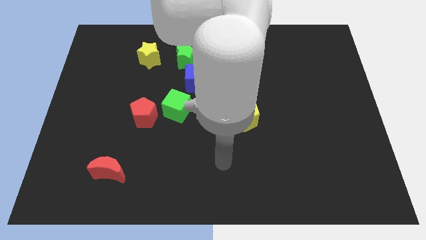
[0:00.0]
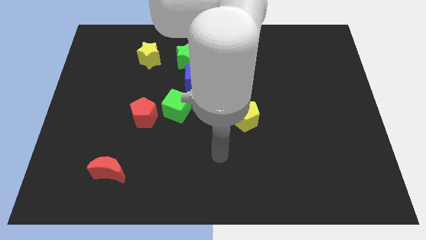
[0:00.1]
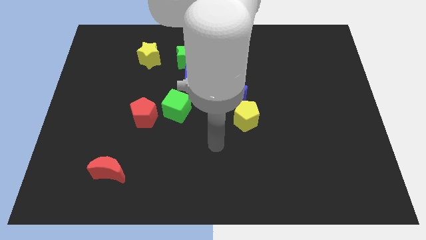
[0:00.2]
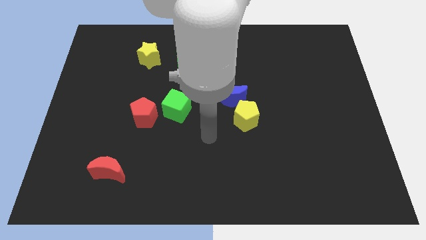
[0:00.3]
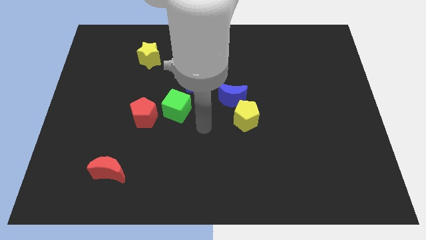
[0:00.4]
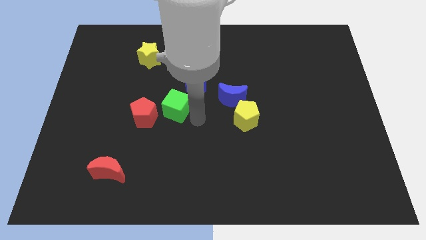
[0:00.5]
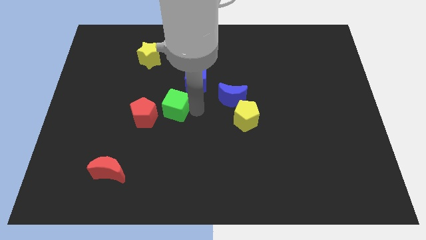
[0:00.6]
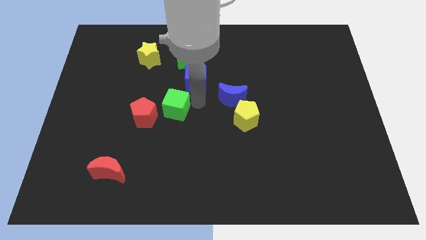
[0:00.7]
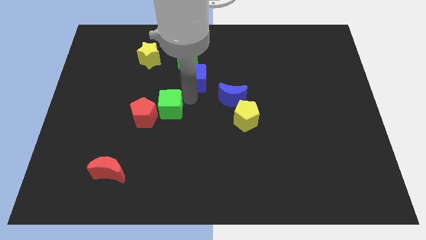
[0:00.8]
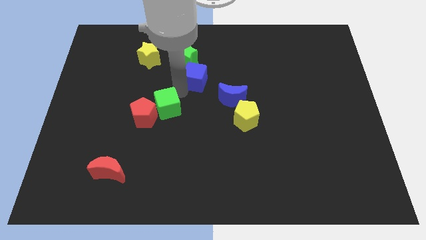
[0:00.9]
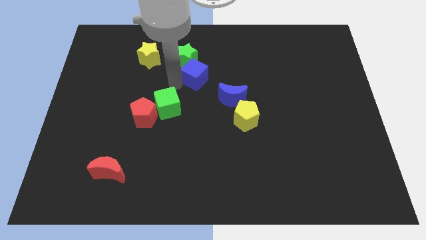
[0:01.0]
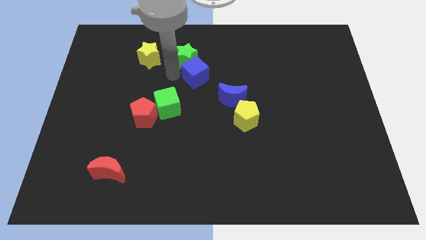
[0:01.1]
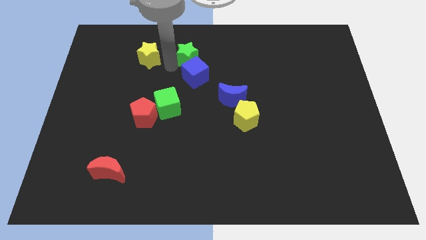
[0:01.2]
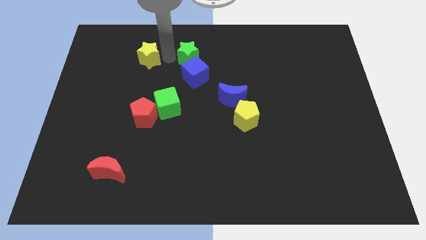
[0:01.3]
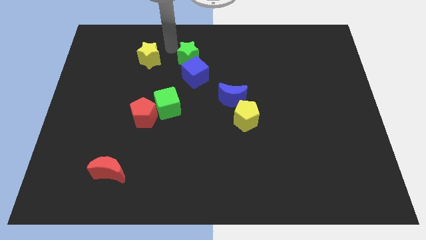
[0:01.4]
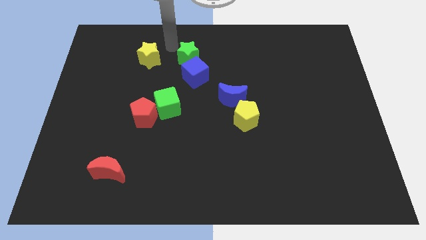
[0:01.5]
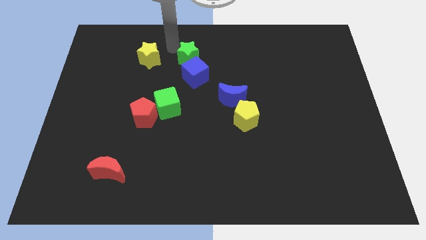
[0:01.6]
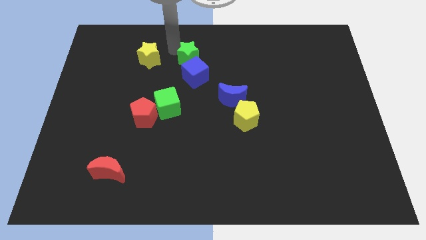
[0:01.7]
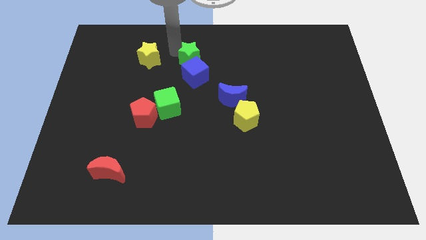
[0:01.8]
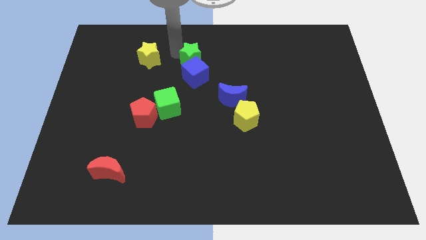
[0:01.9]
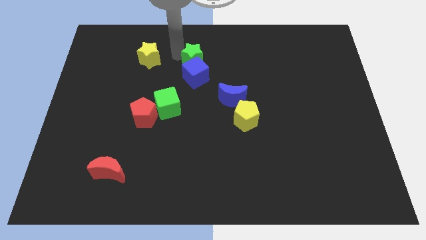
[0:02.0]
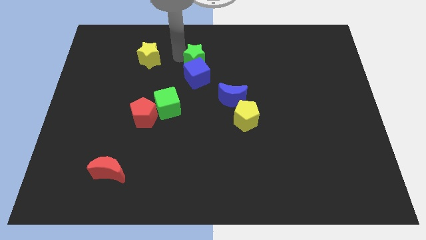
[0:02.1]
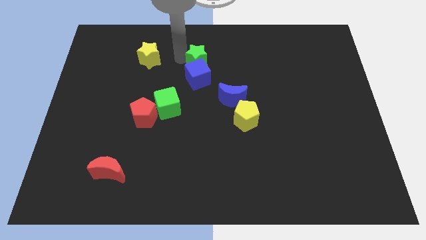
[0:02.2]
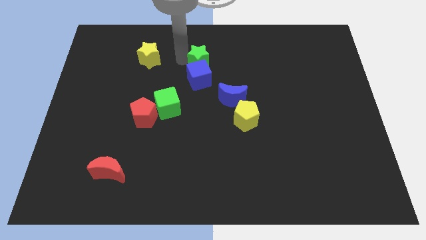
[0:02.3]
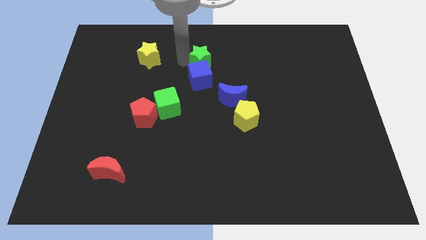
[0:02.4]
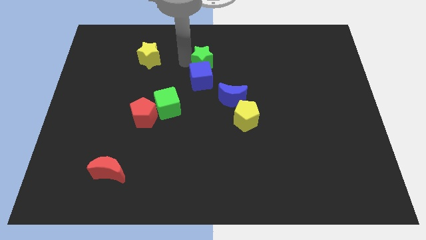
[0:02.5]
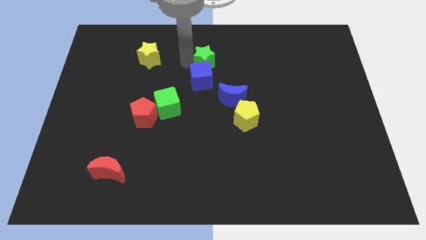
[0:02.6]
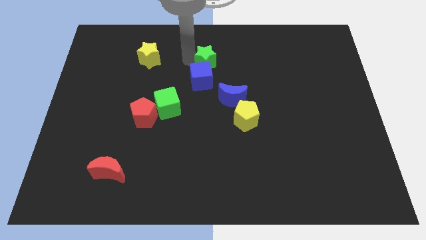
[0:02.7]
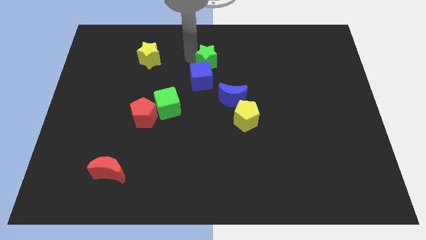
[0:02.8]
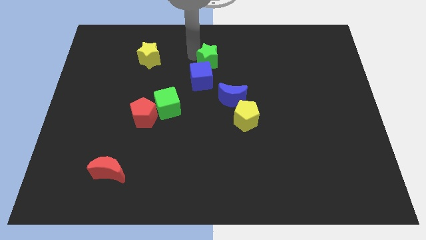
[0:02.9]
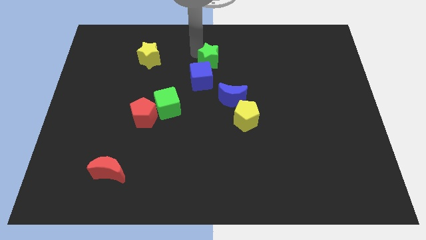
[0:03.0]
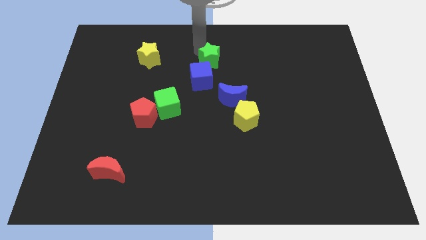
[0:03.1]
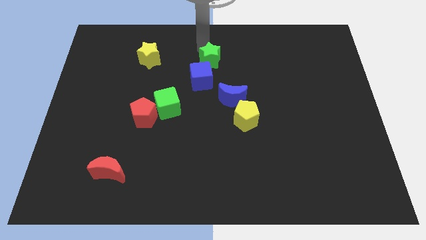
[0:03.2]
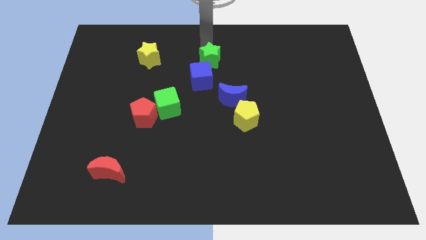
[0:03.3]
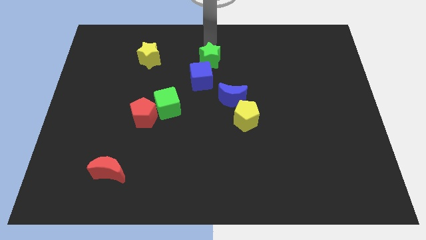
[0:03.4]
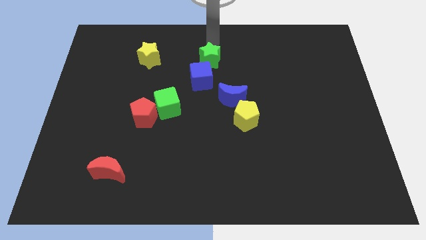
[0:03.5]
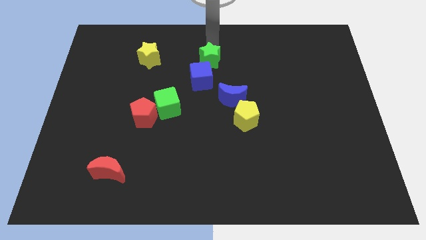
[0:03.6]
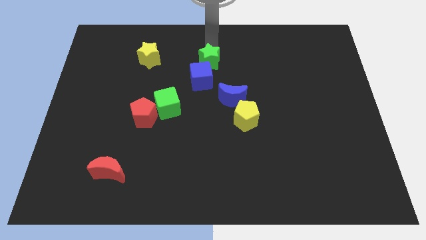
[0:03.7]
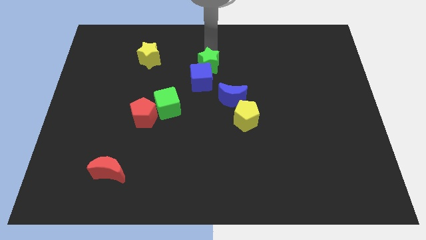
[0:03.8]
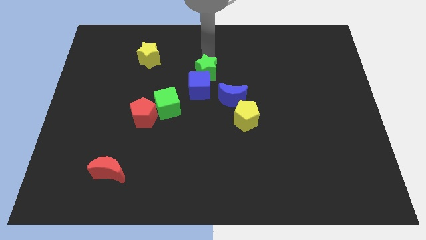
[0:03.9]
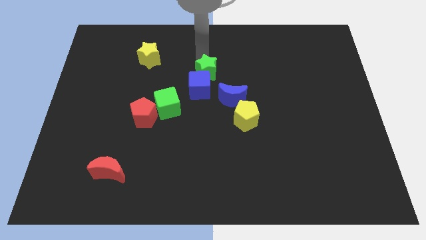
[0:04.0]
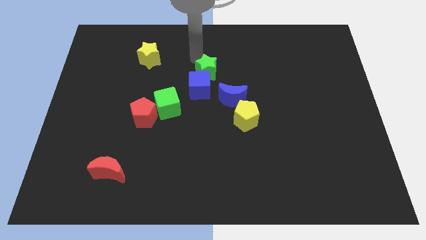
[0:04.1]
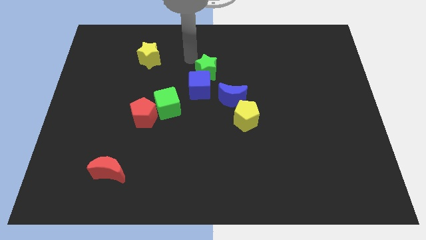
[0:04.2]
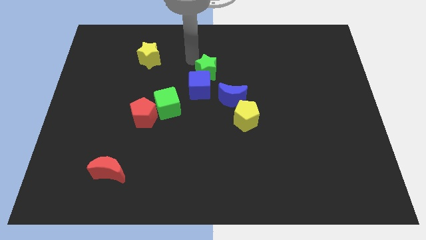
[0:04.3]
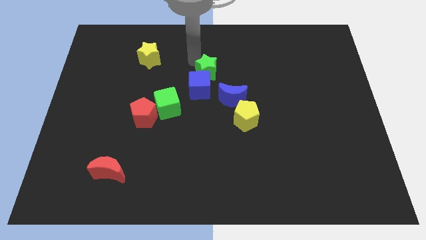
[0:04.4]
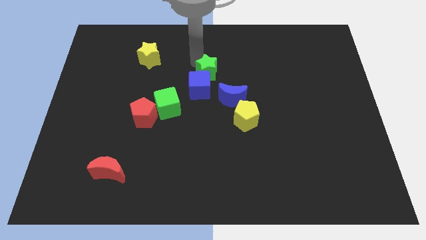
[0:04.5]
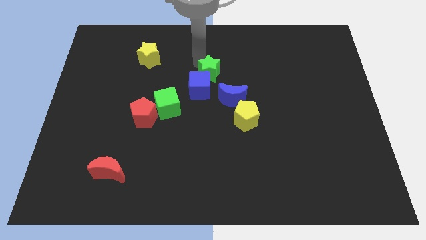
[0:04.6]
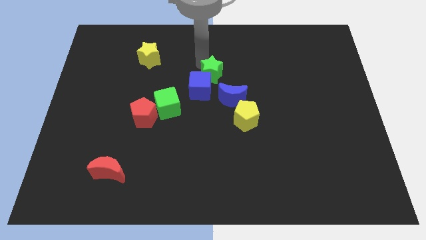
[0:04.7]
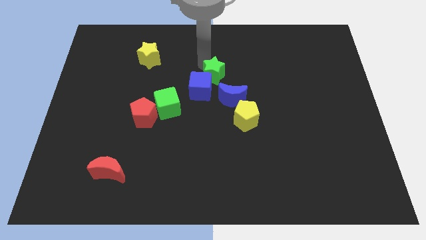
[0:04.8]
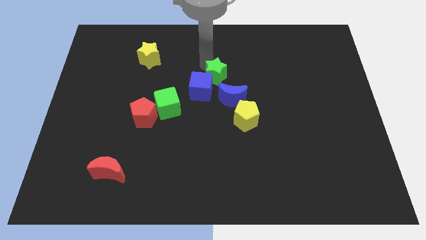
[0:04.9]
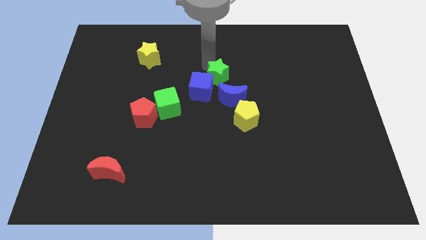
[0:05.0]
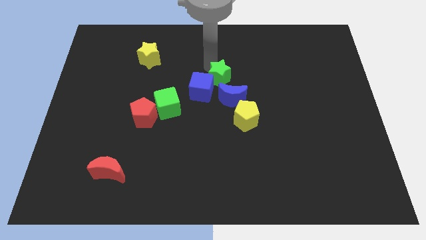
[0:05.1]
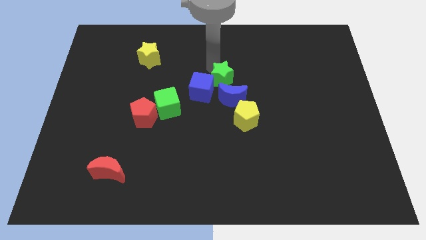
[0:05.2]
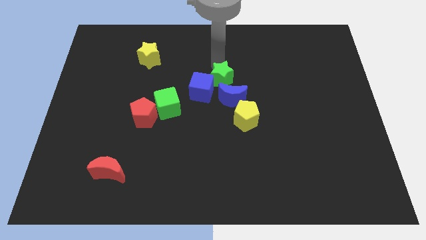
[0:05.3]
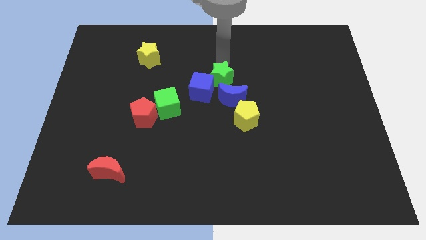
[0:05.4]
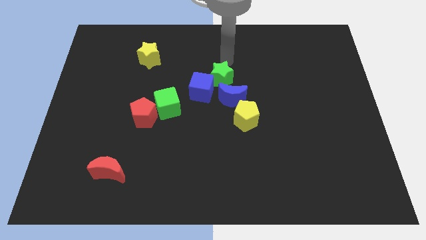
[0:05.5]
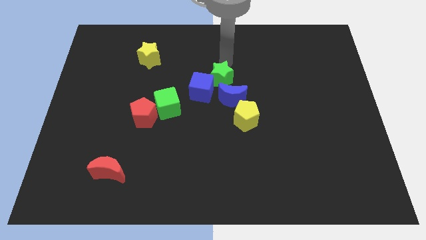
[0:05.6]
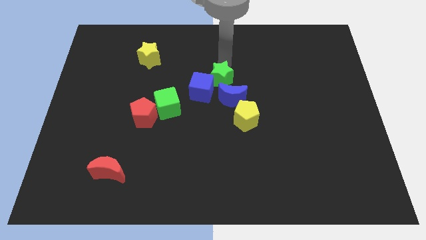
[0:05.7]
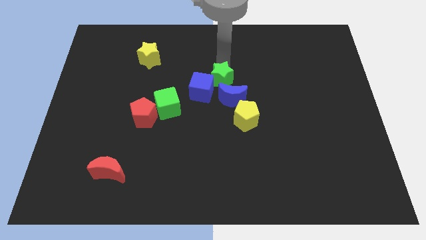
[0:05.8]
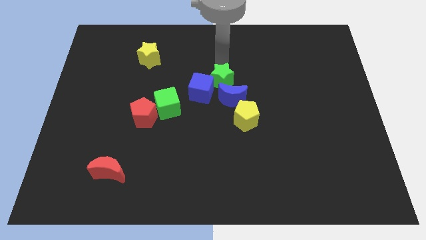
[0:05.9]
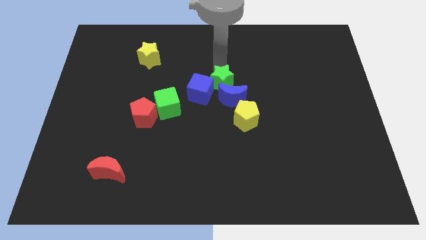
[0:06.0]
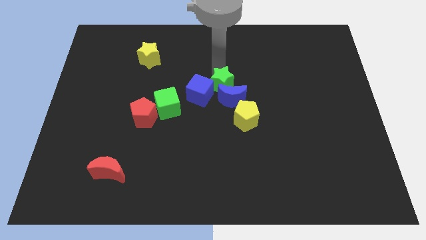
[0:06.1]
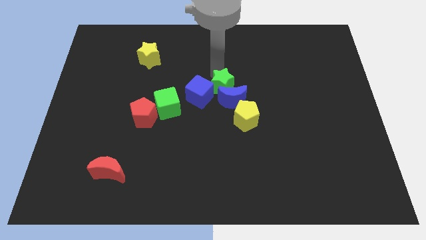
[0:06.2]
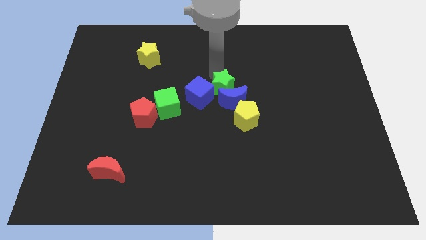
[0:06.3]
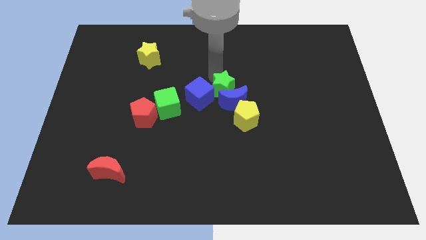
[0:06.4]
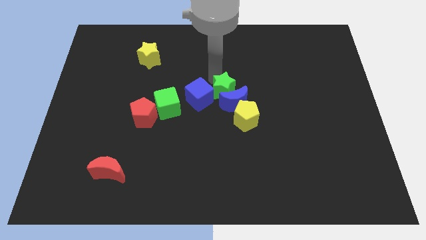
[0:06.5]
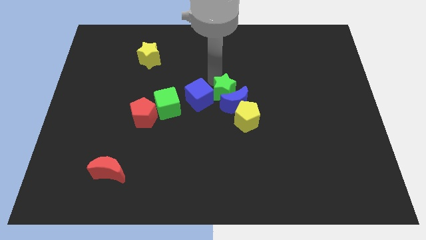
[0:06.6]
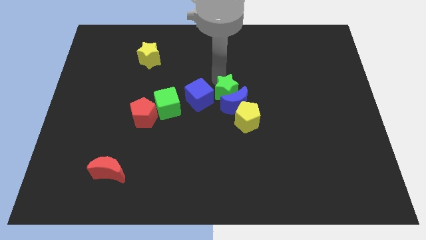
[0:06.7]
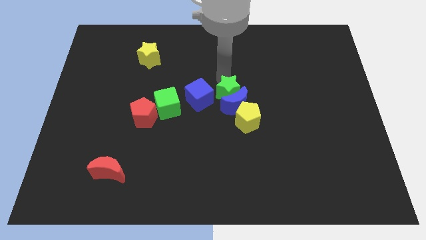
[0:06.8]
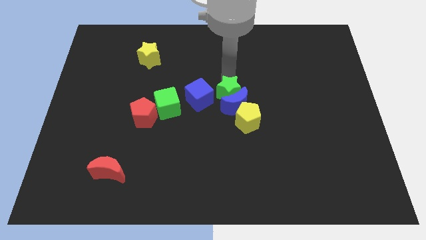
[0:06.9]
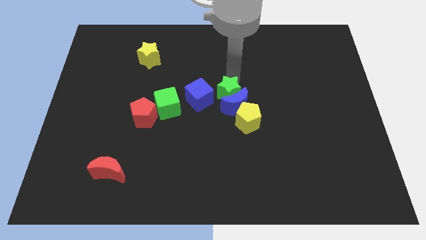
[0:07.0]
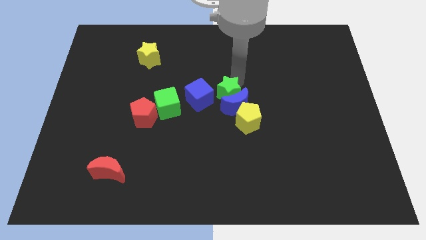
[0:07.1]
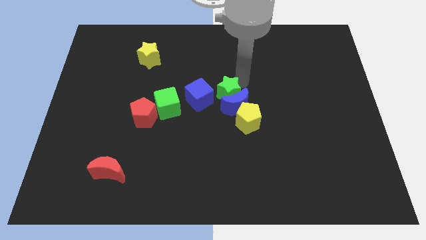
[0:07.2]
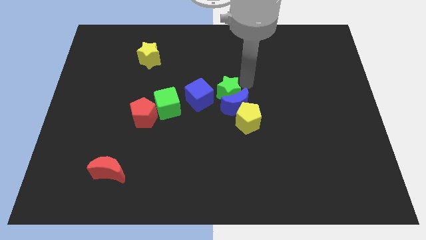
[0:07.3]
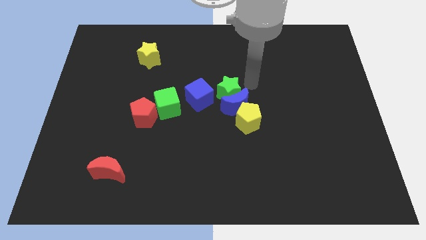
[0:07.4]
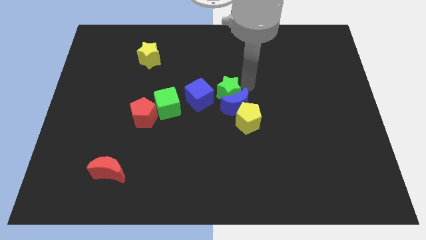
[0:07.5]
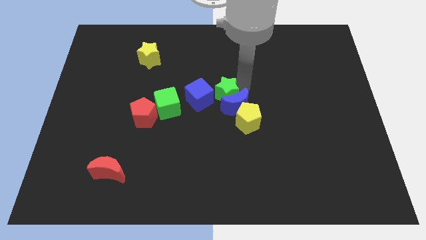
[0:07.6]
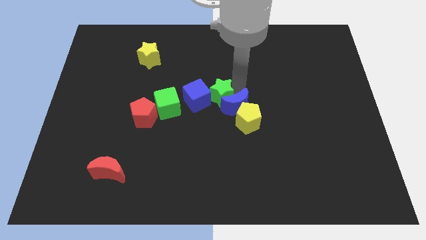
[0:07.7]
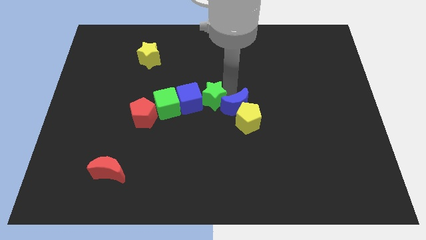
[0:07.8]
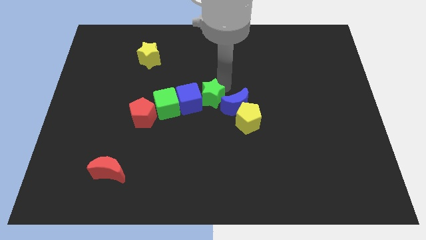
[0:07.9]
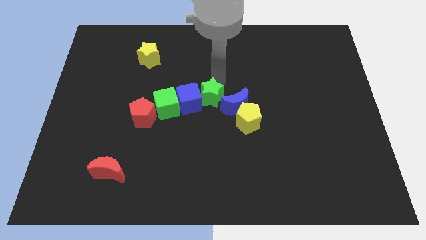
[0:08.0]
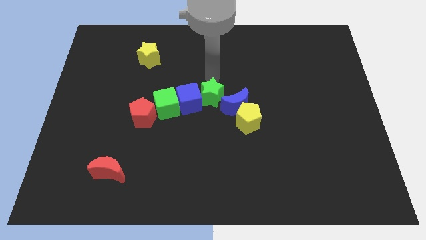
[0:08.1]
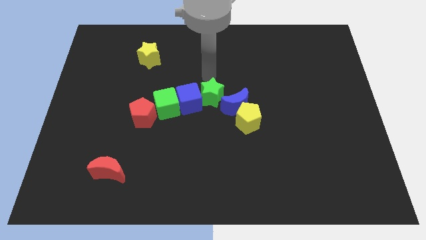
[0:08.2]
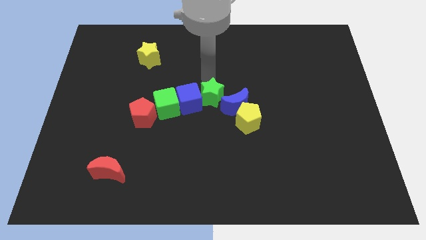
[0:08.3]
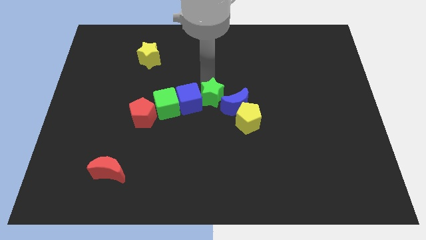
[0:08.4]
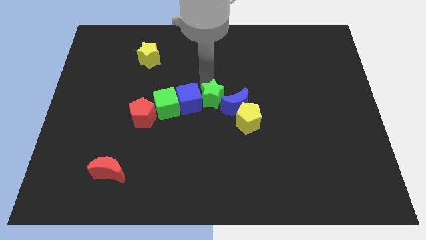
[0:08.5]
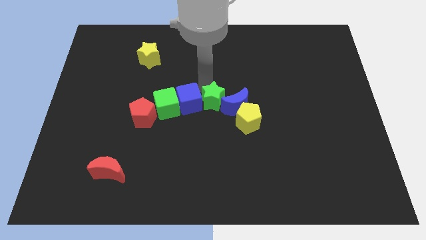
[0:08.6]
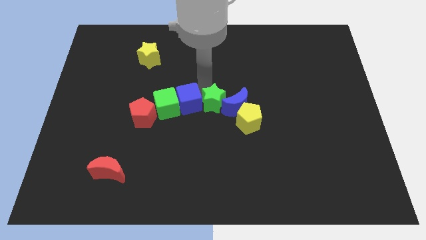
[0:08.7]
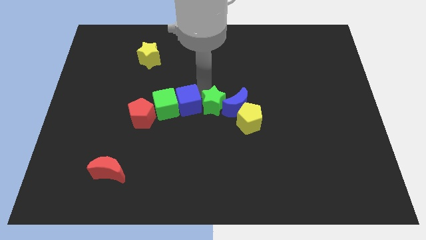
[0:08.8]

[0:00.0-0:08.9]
put the green star to the bottom left side of the blue moon
